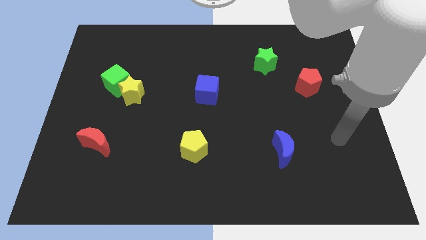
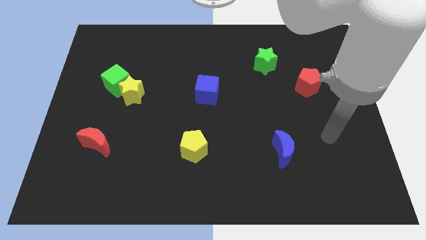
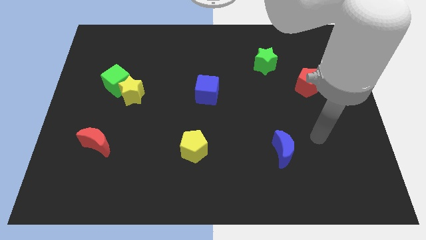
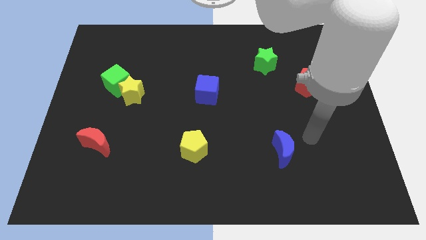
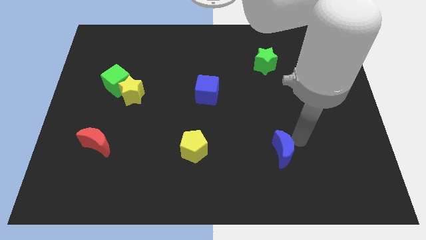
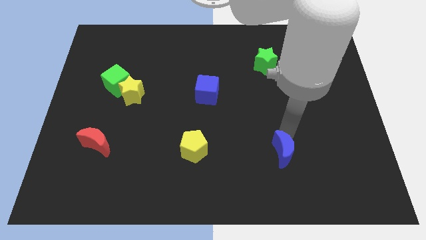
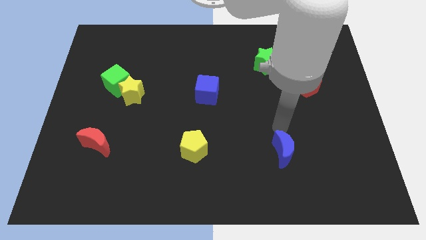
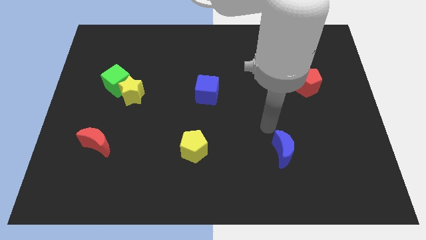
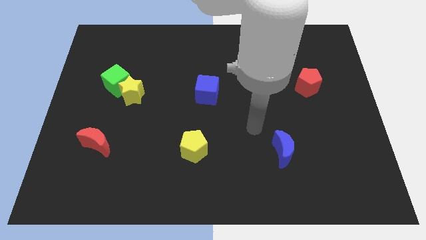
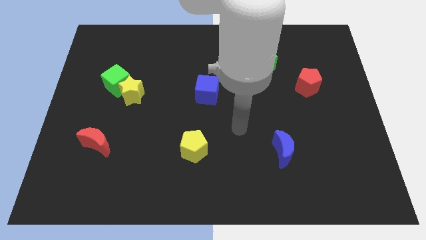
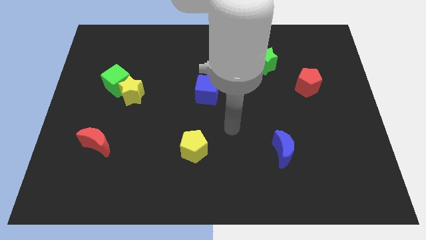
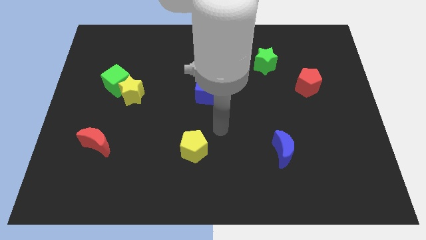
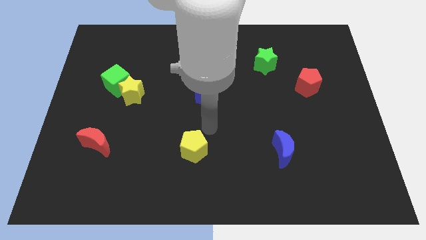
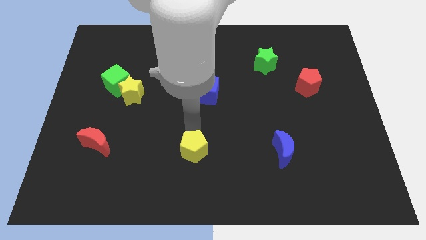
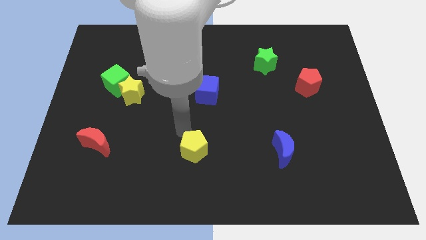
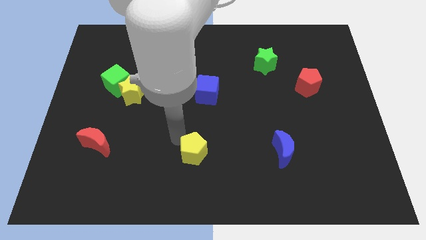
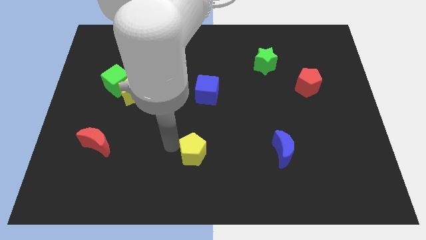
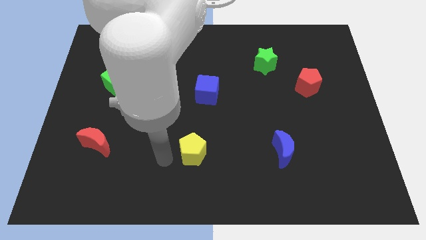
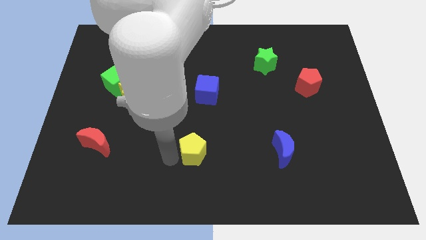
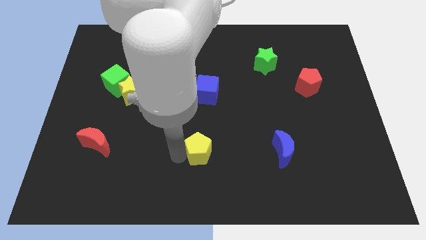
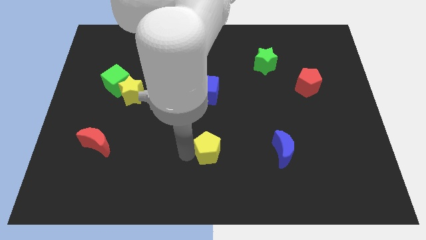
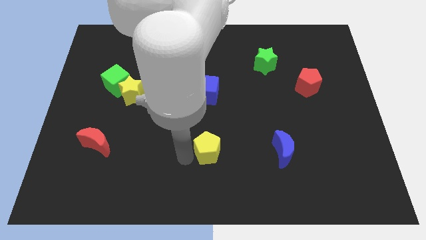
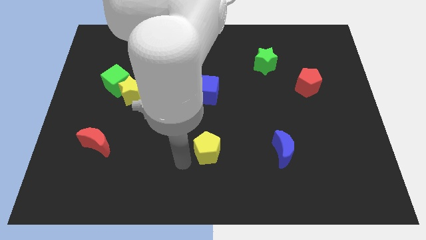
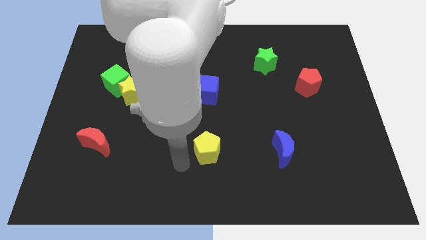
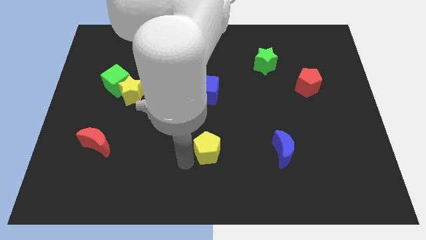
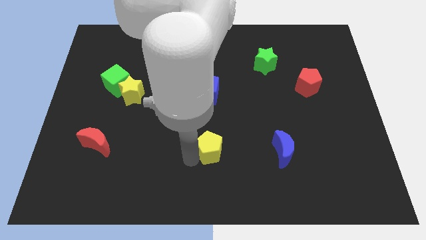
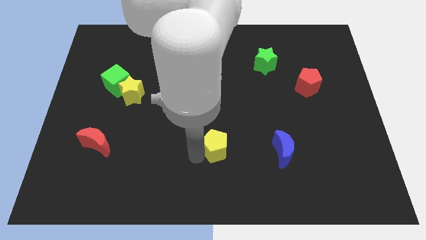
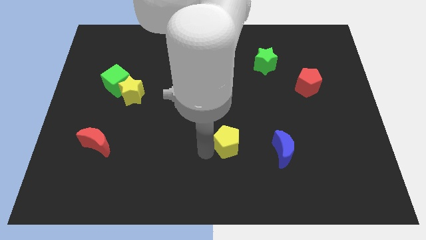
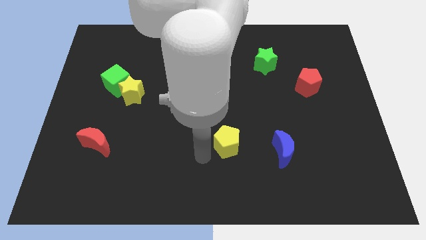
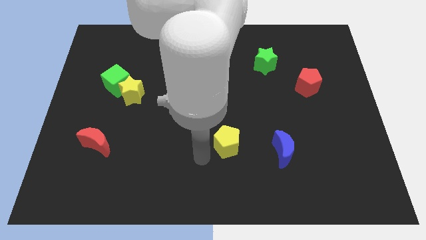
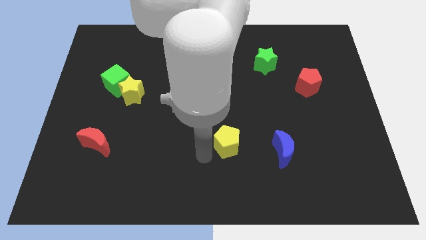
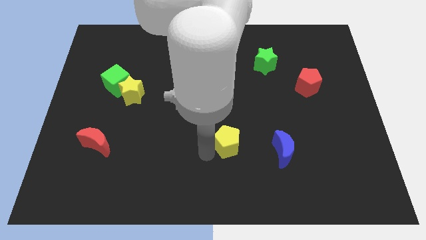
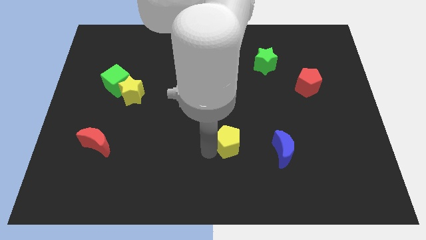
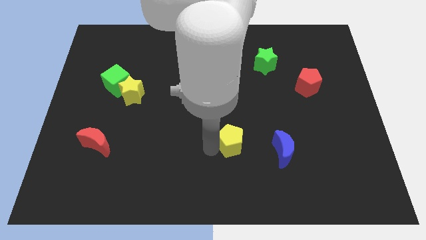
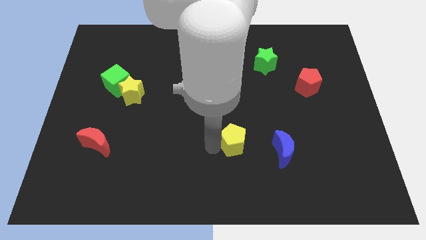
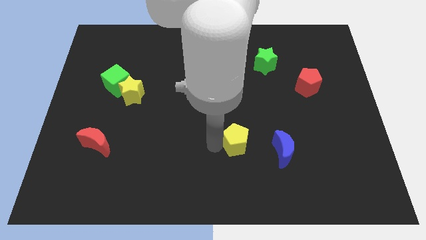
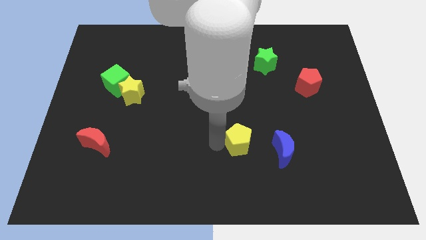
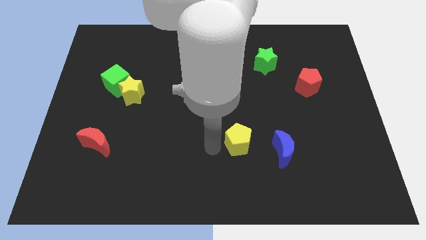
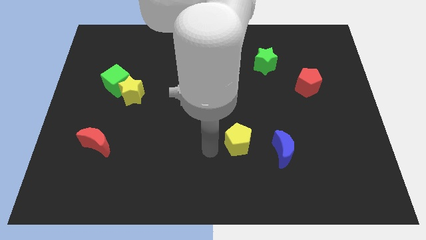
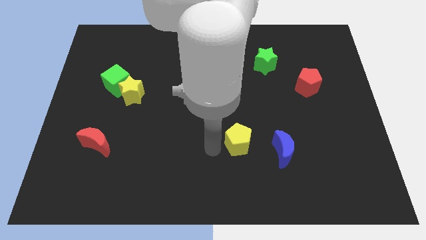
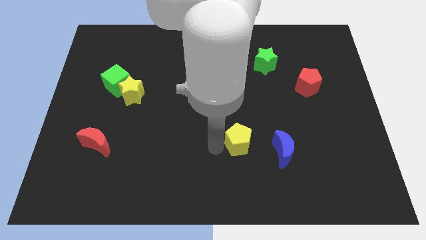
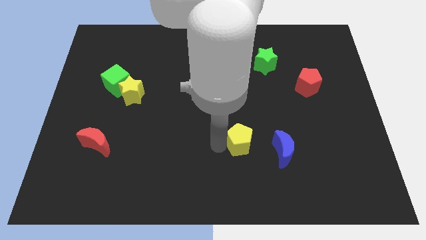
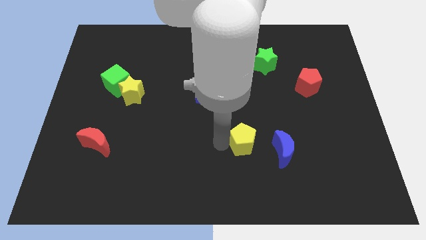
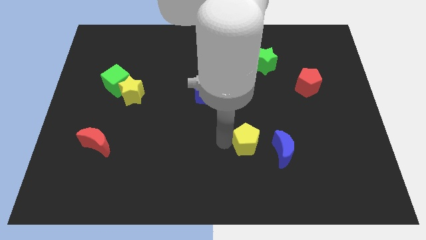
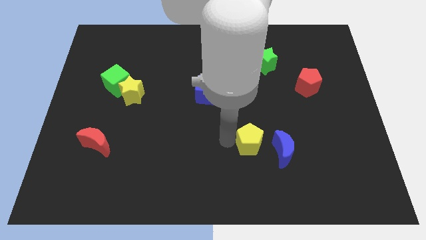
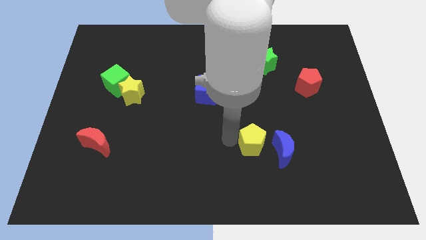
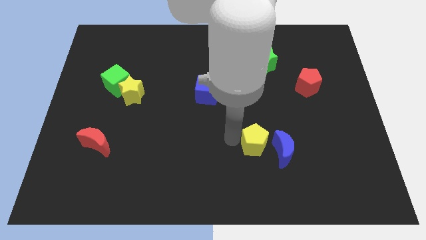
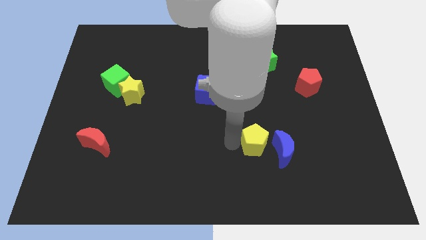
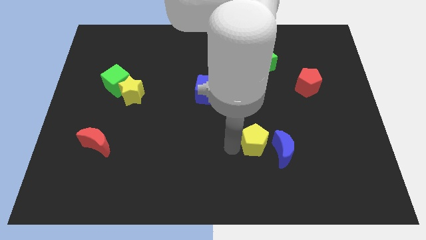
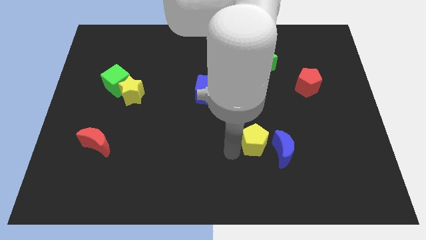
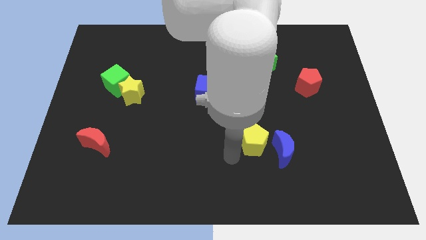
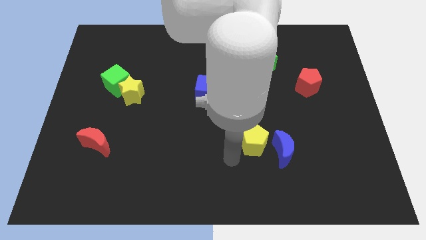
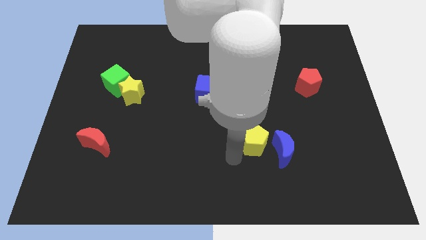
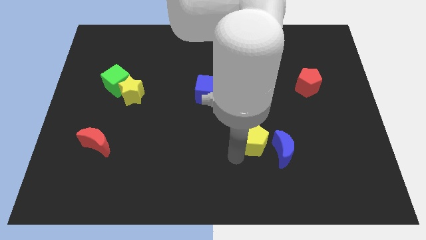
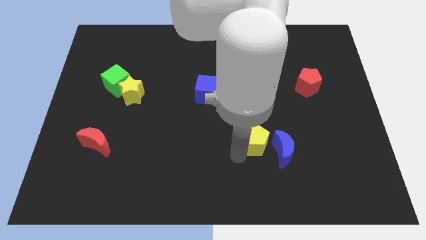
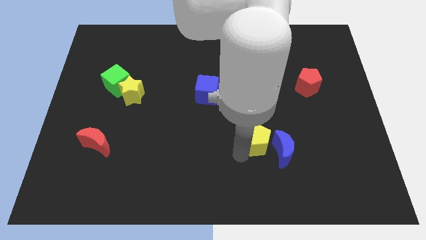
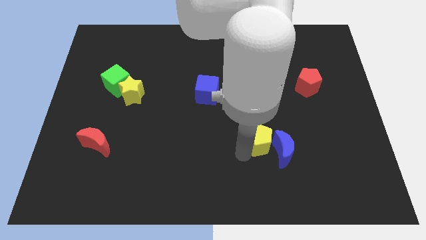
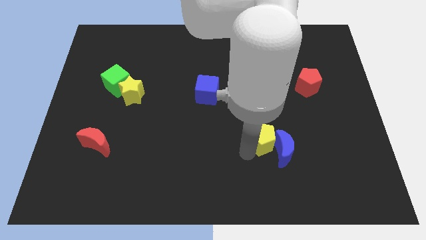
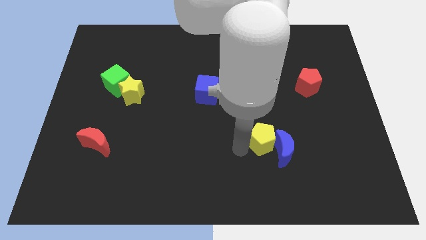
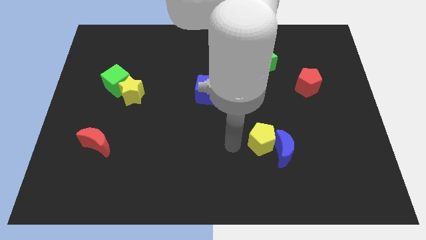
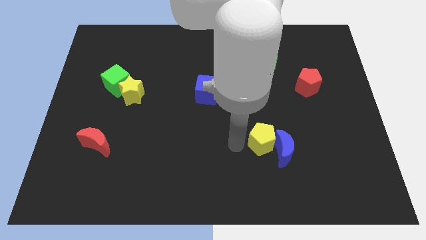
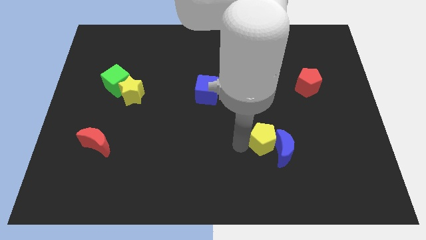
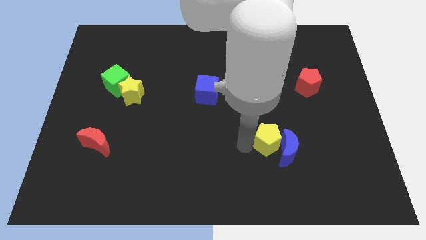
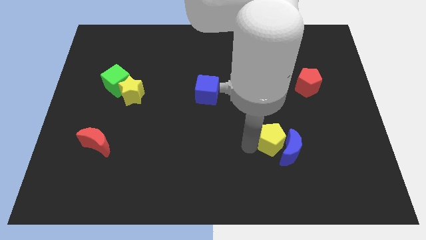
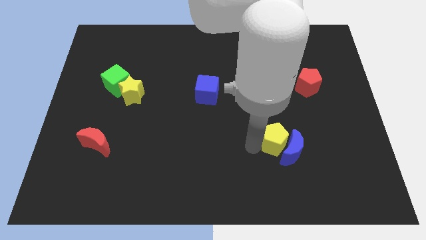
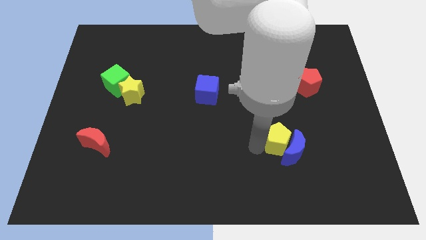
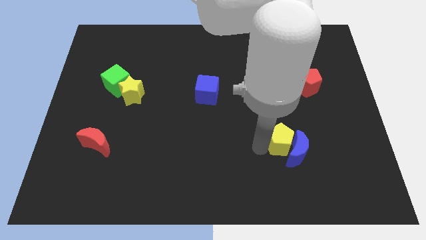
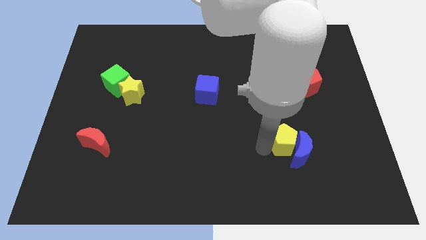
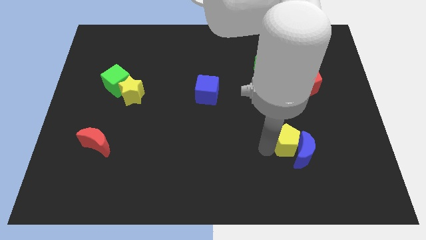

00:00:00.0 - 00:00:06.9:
move the yellow pentagon right

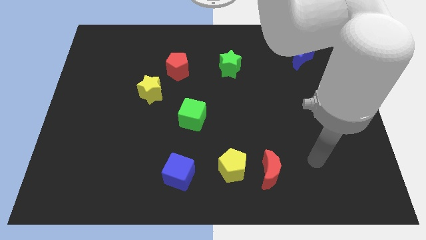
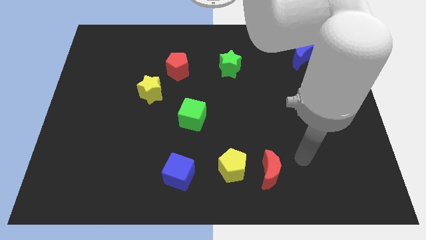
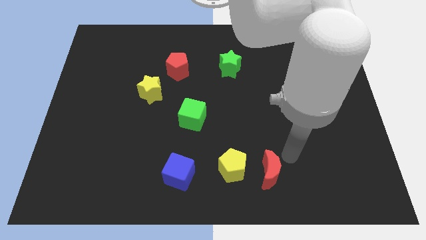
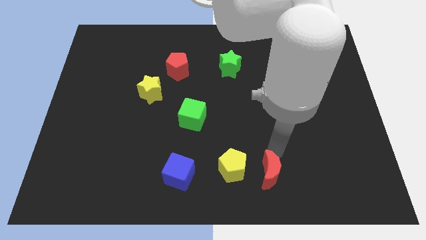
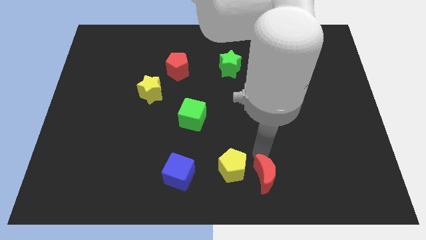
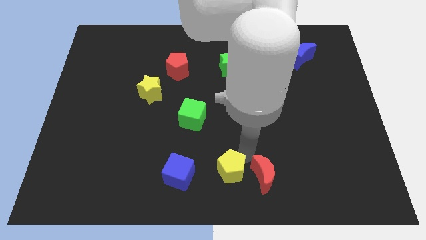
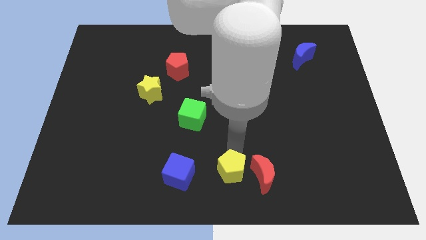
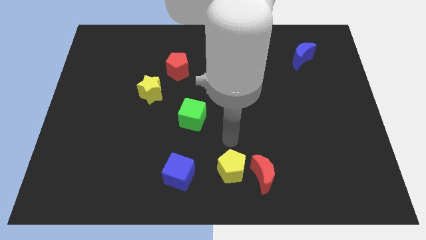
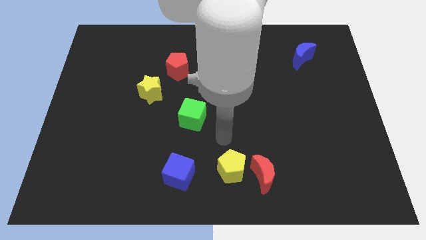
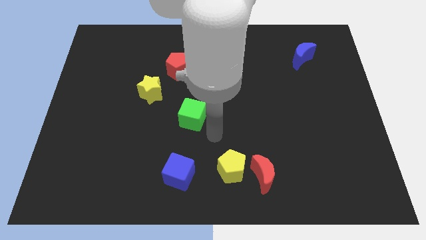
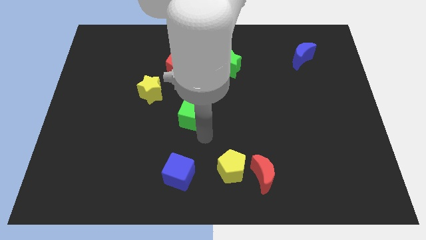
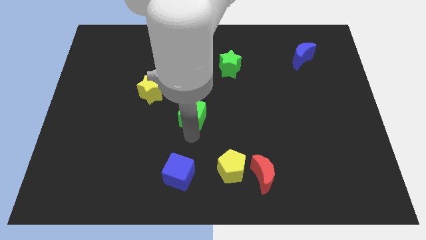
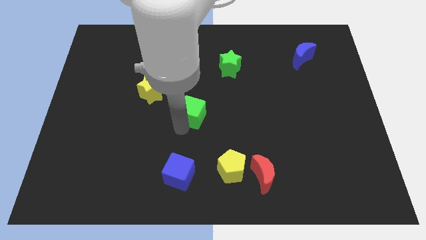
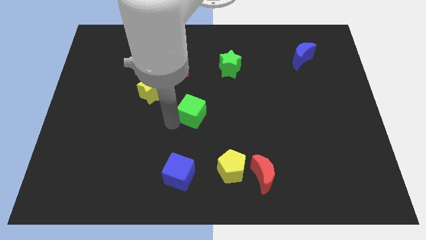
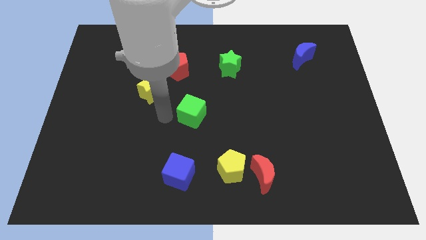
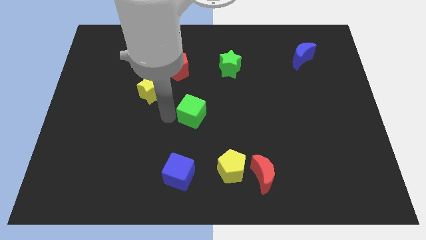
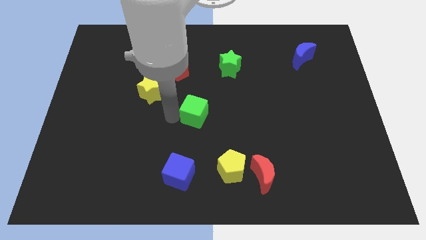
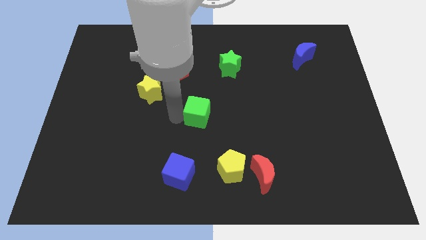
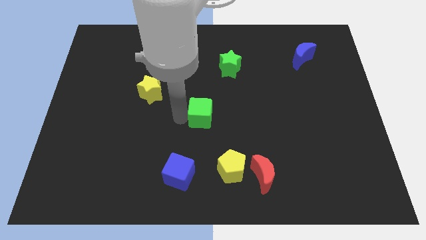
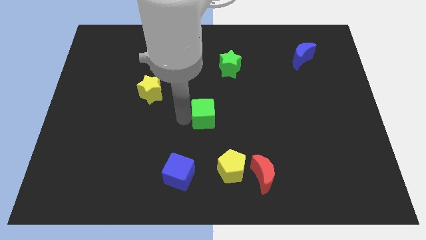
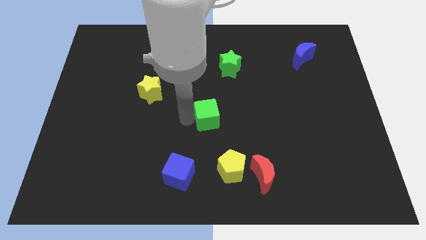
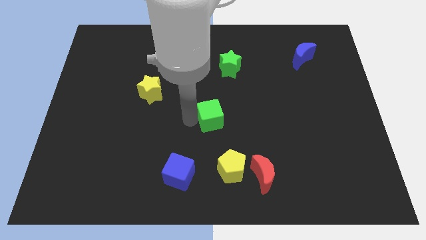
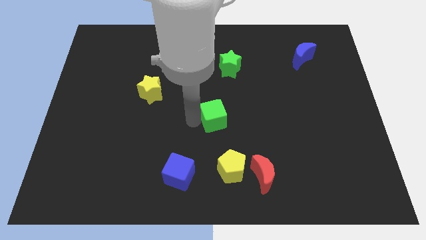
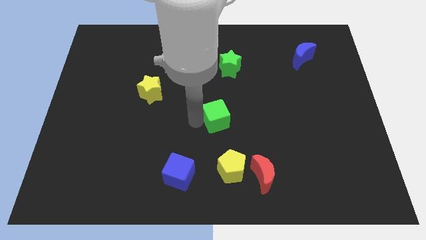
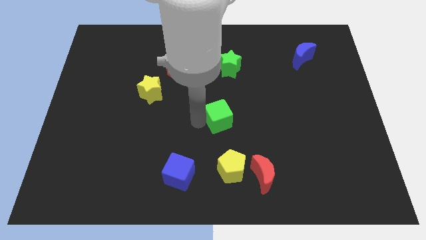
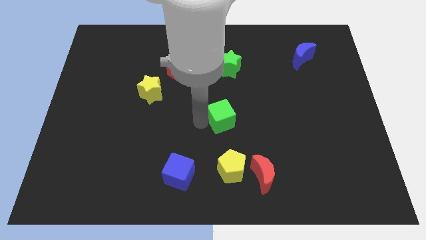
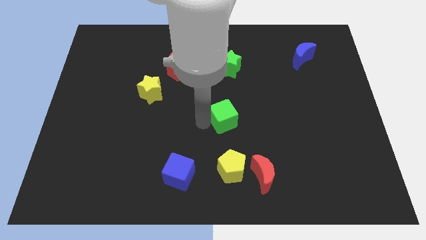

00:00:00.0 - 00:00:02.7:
slide the green cube somewhat to the right
